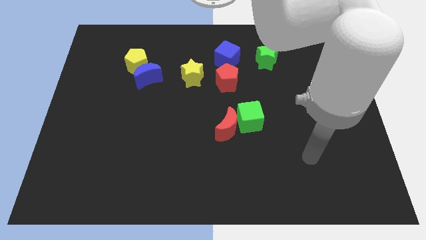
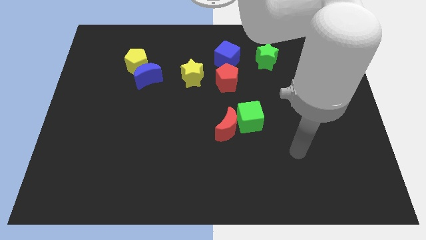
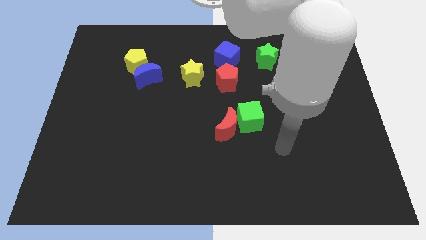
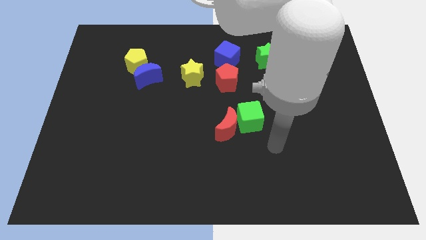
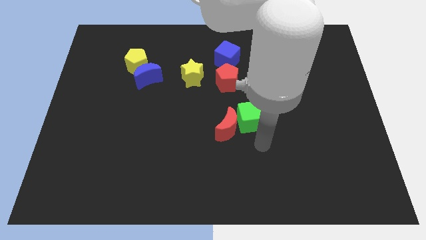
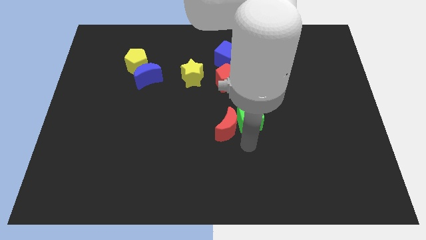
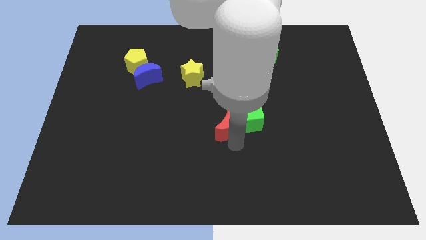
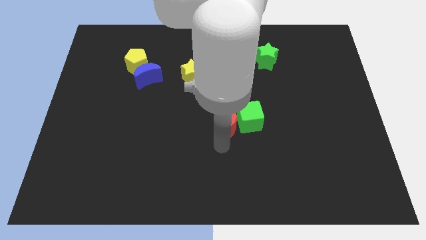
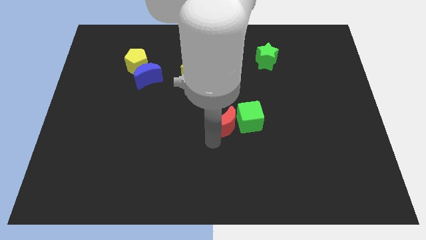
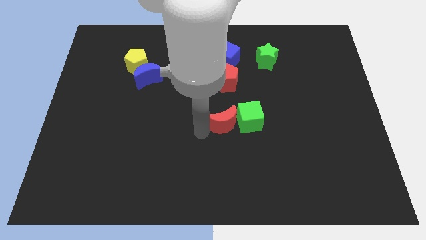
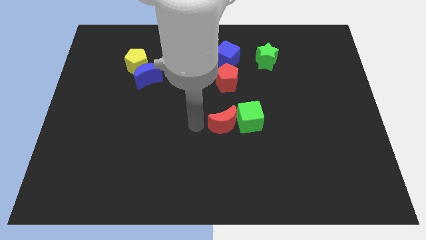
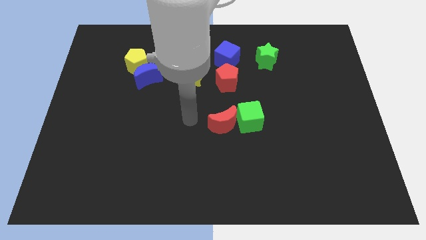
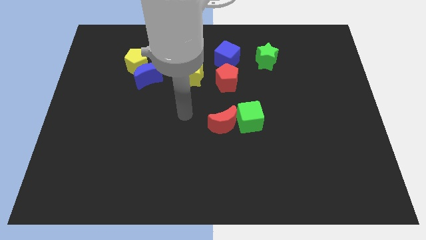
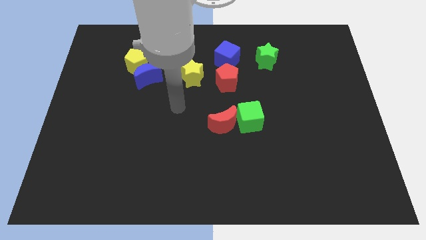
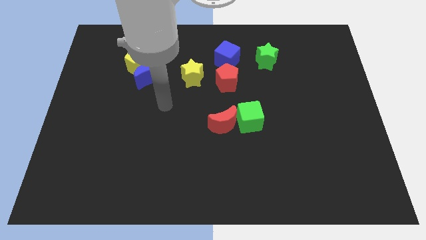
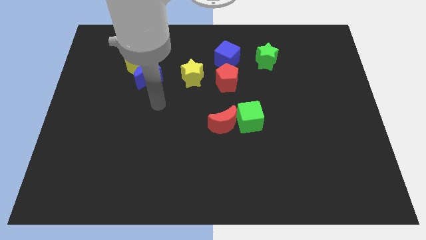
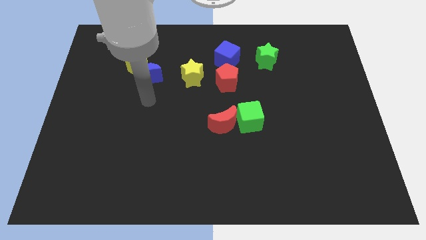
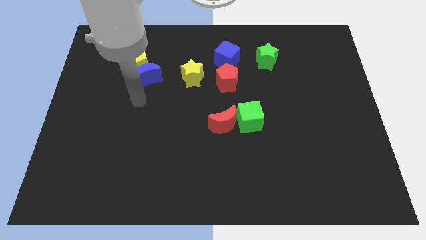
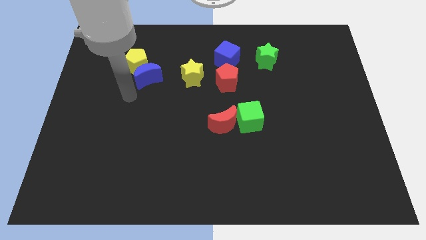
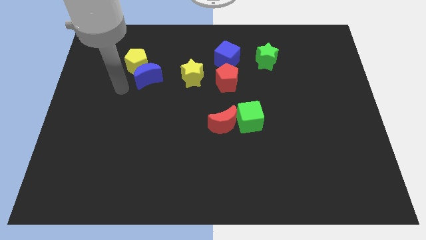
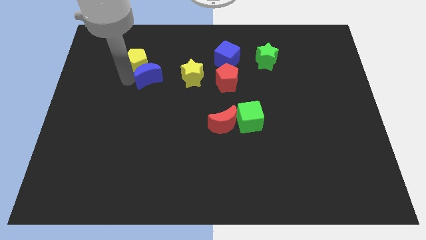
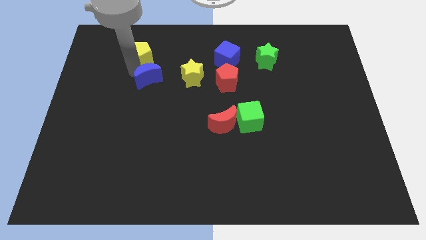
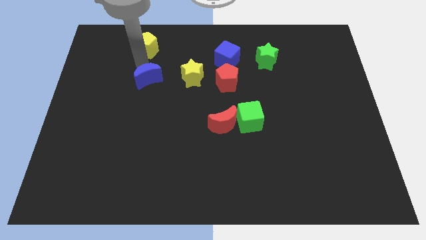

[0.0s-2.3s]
move the blue moon away from the yellow pentagon

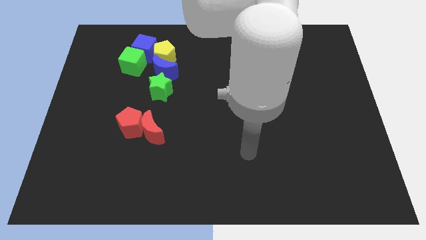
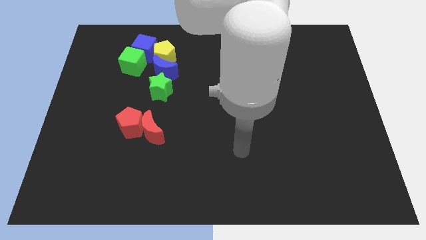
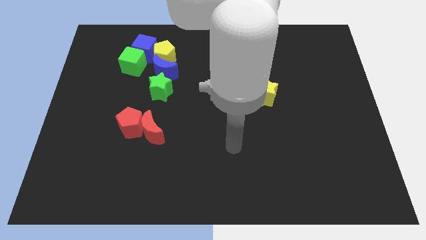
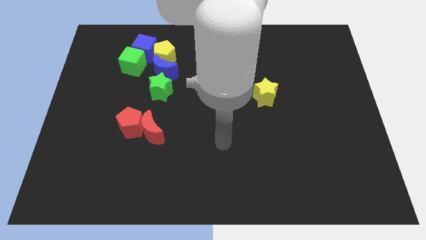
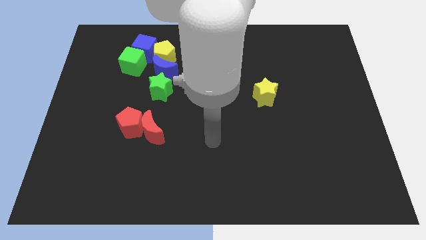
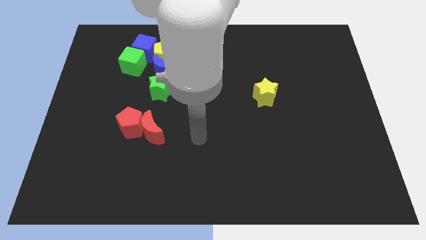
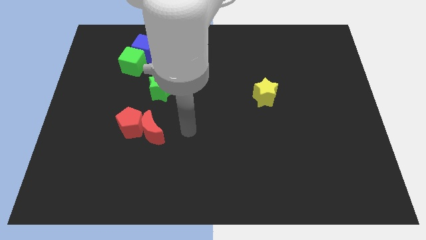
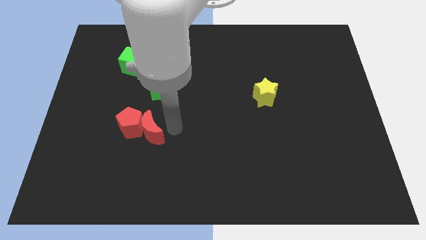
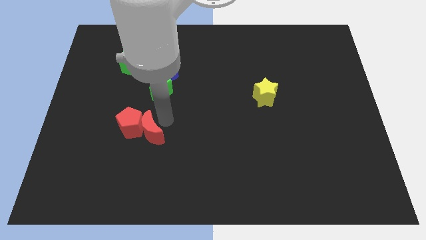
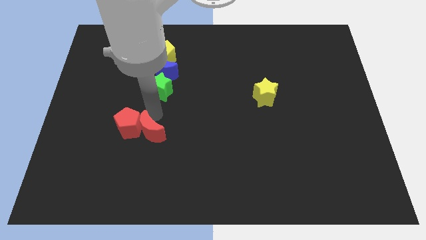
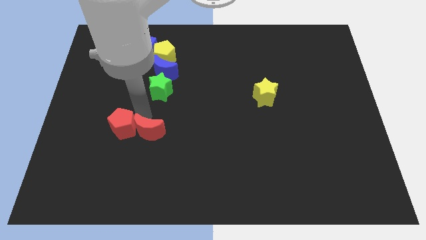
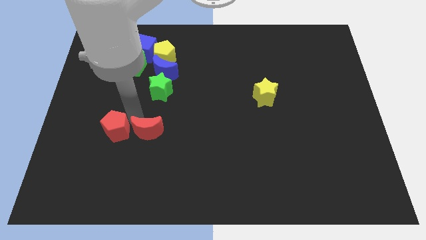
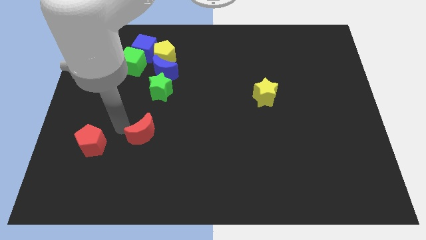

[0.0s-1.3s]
separate the red moon from the red pentagon

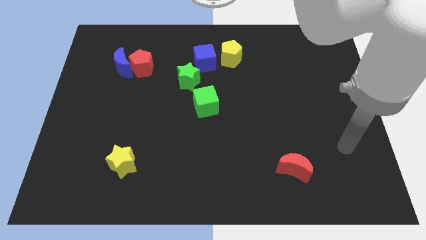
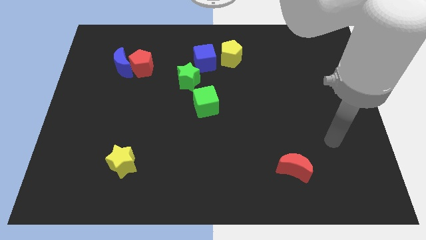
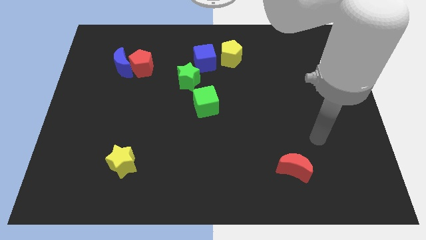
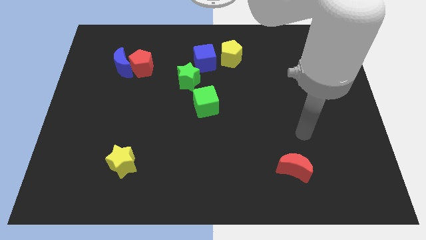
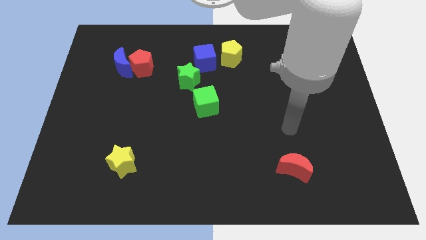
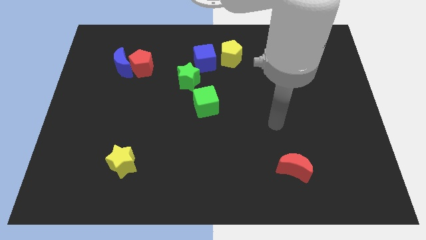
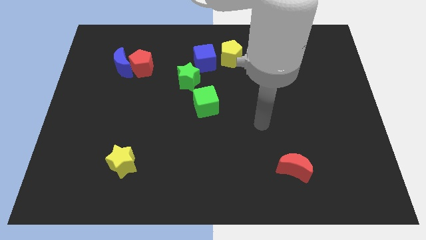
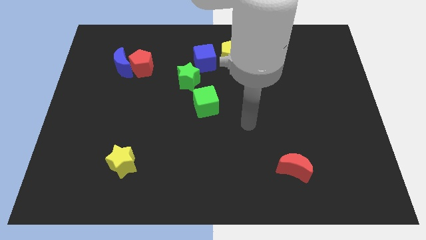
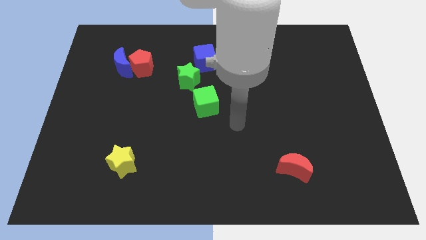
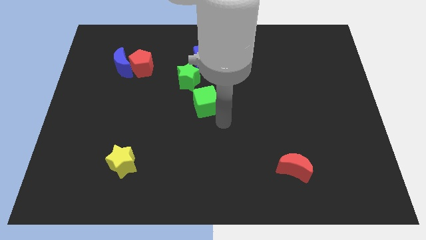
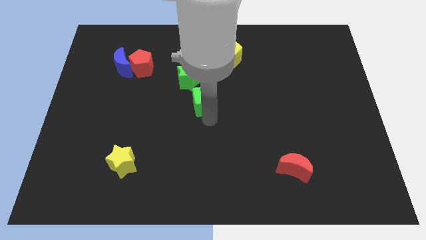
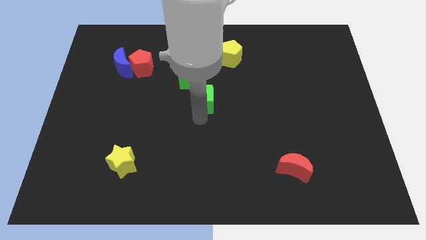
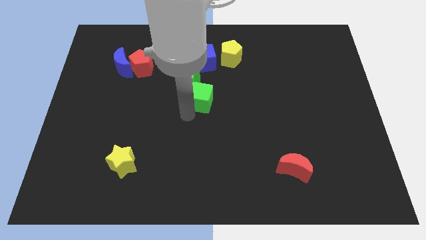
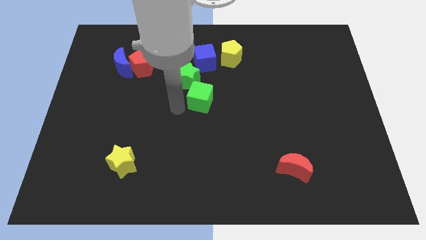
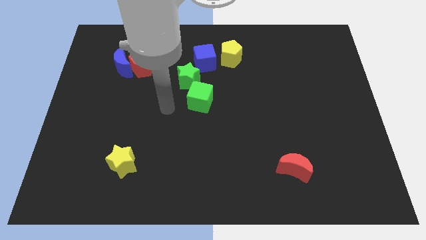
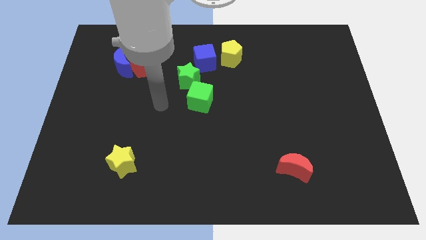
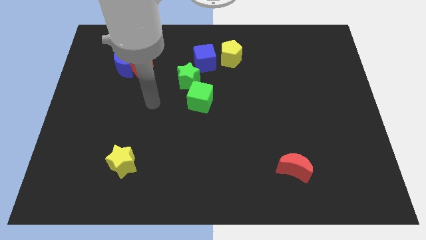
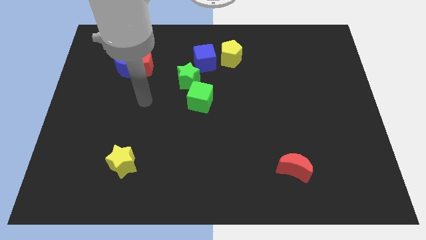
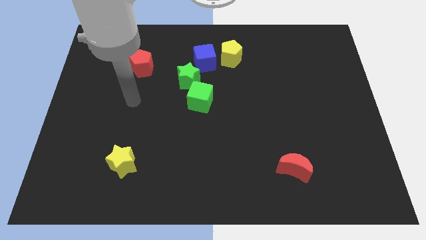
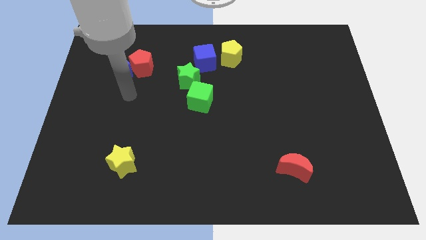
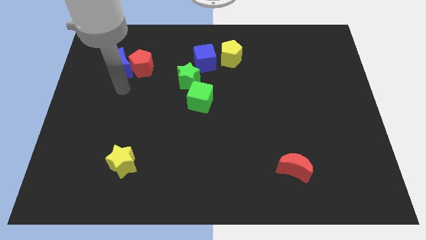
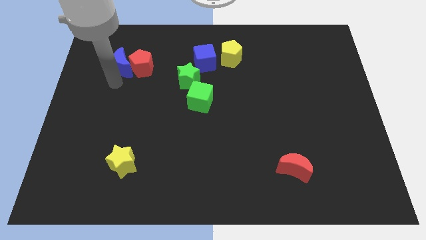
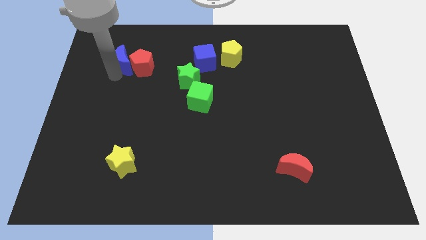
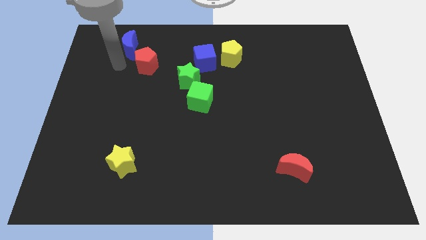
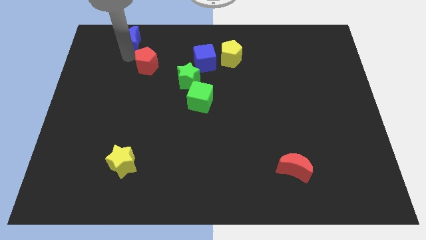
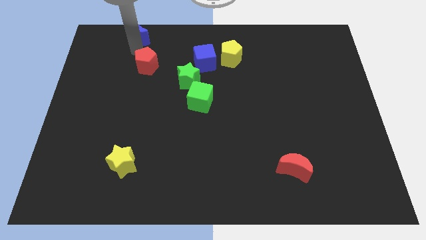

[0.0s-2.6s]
move the red pentagon away from the blue moon

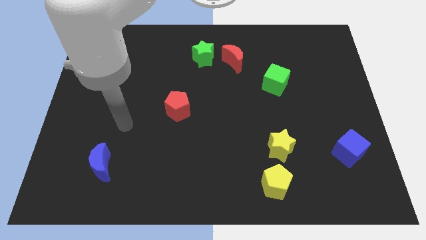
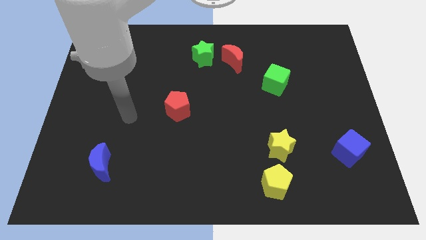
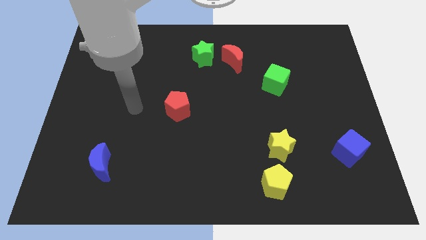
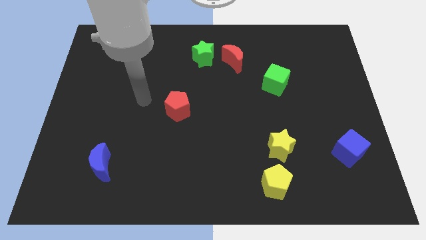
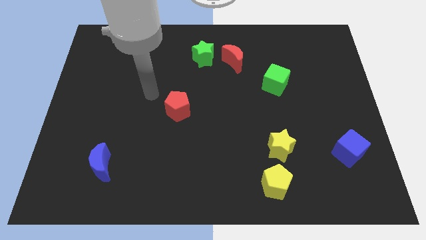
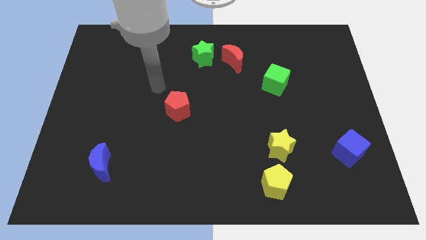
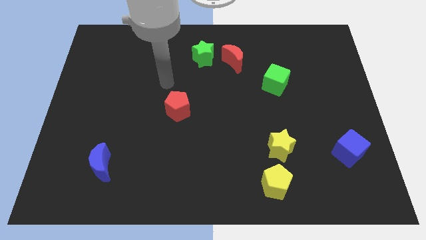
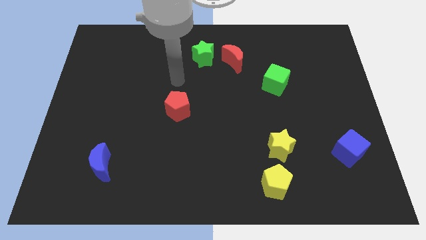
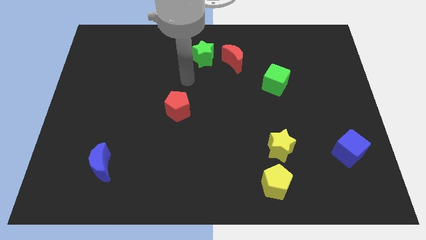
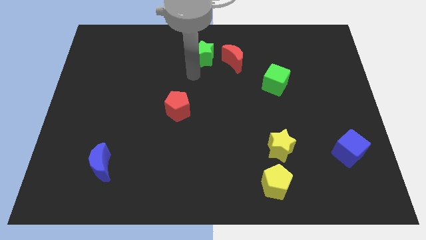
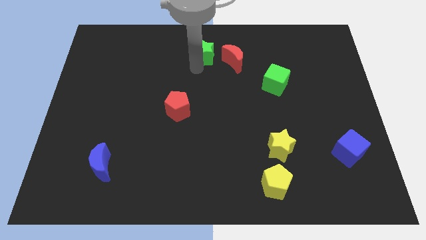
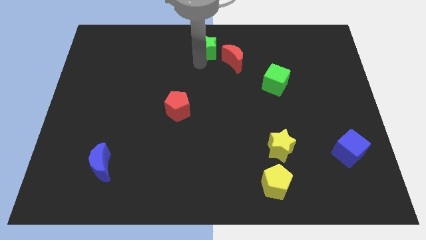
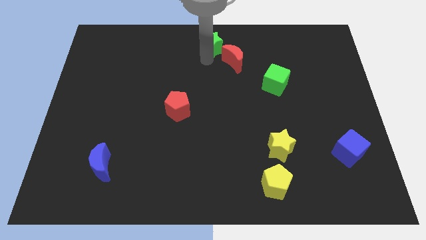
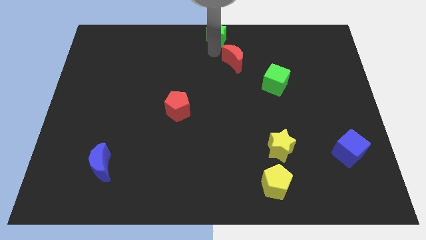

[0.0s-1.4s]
separate the red moon from the green star

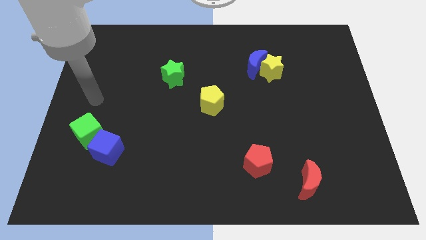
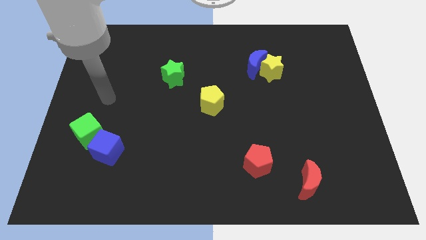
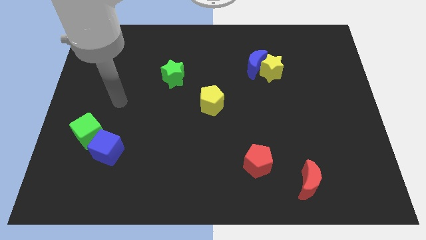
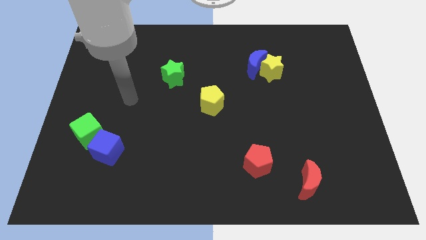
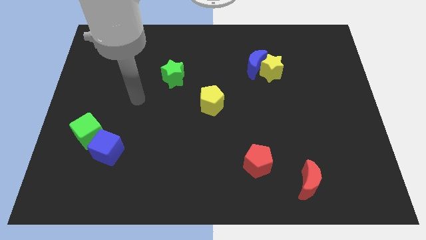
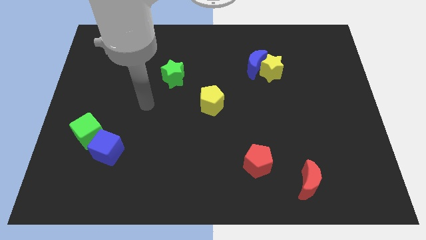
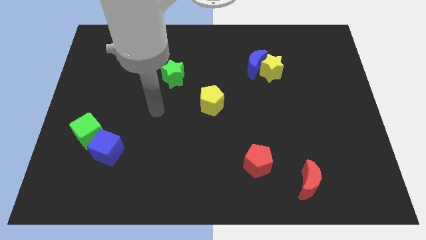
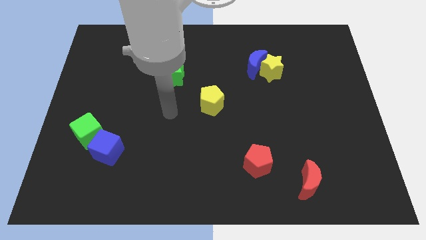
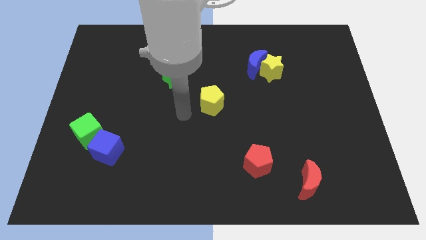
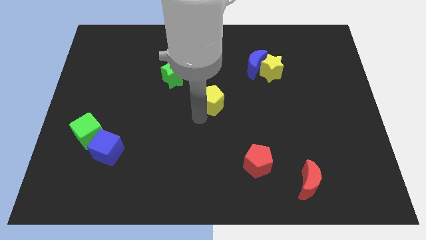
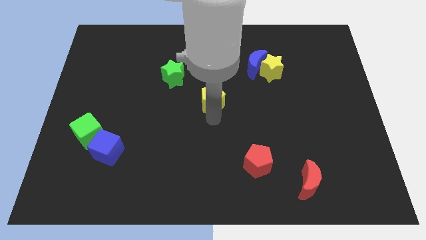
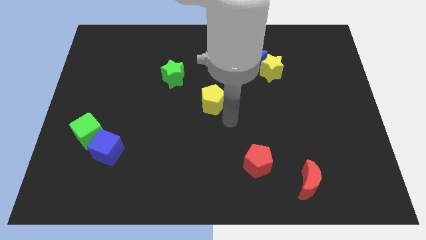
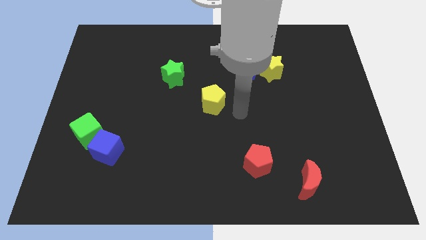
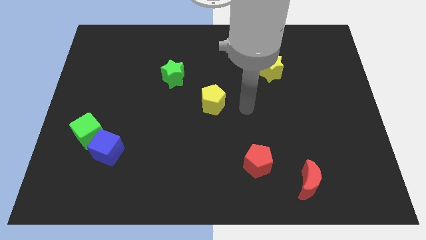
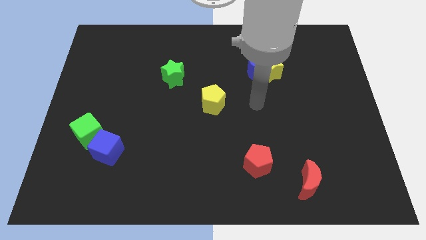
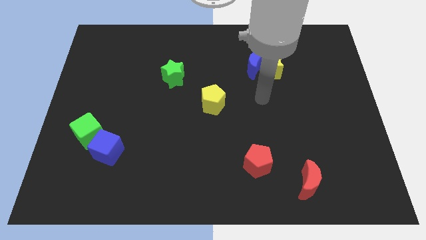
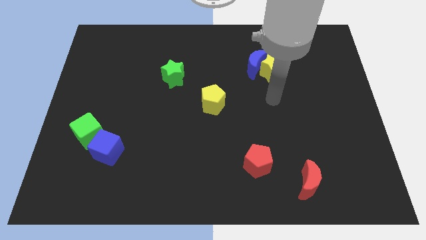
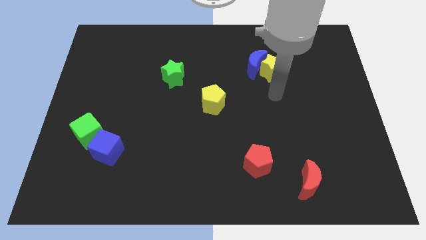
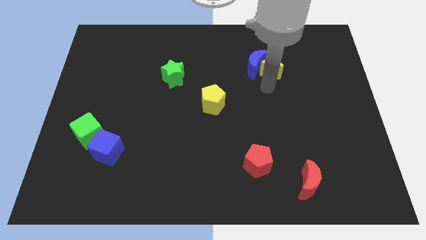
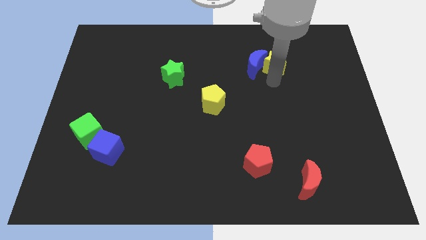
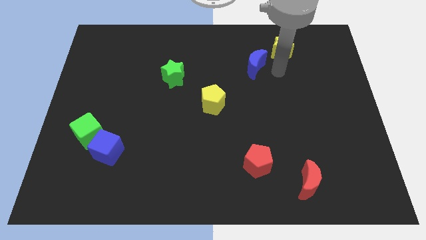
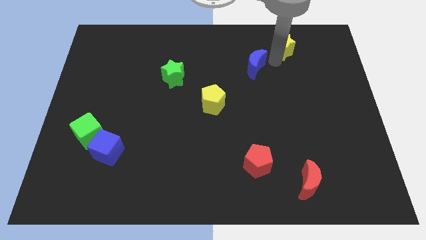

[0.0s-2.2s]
pull the blue moon apart from the yellow star
